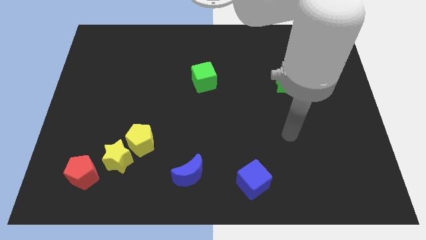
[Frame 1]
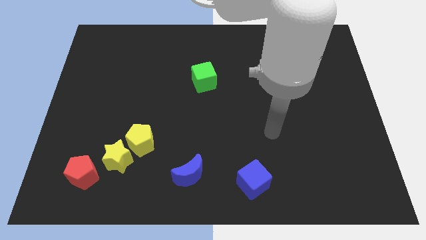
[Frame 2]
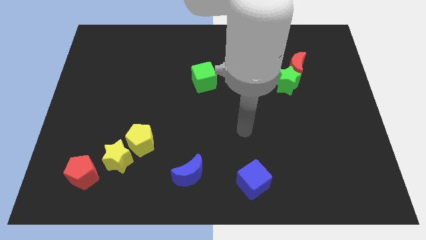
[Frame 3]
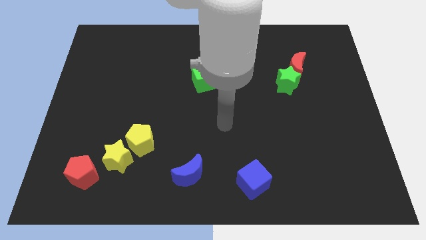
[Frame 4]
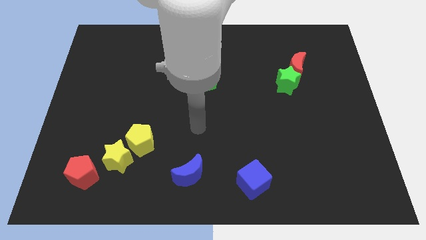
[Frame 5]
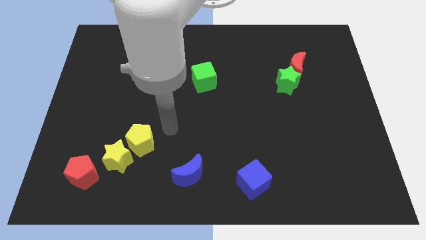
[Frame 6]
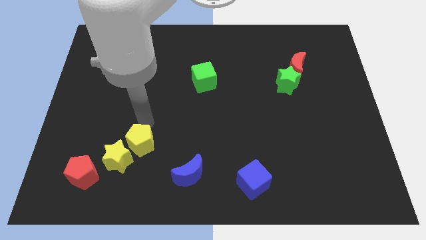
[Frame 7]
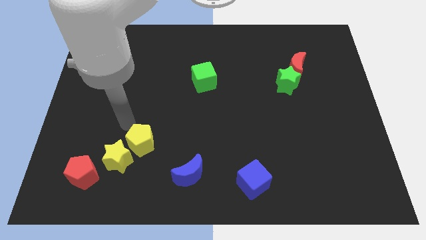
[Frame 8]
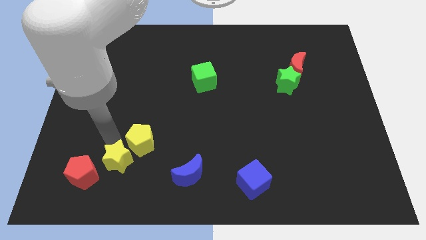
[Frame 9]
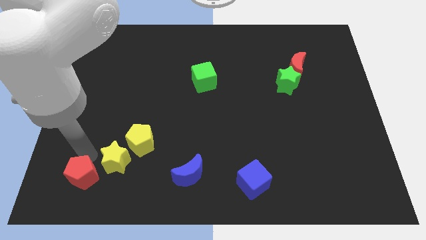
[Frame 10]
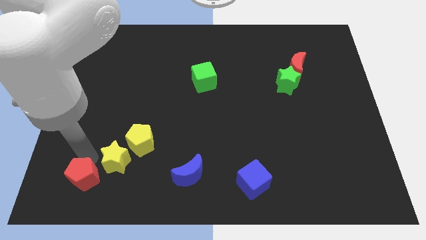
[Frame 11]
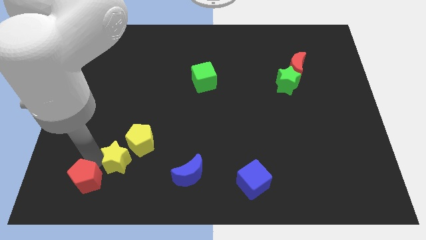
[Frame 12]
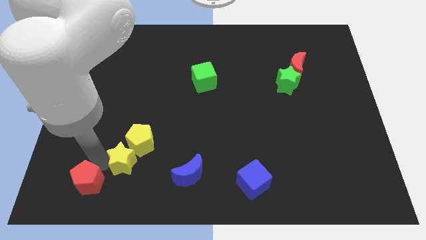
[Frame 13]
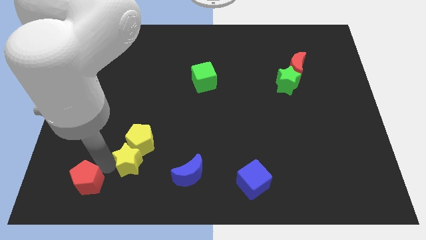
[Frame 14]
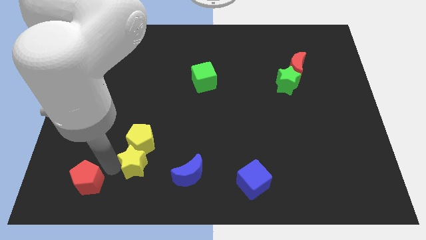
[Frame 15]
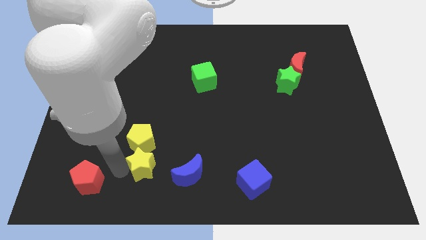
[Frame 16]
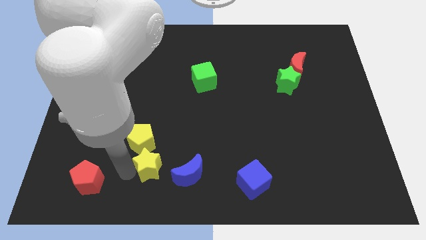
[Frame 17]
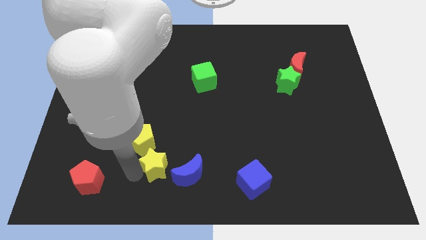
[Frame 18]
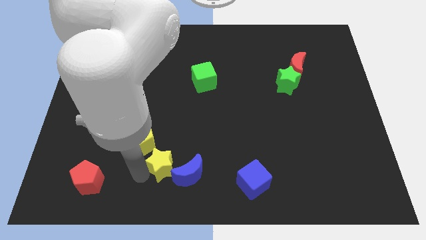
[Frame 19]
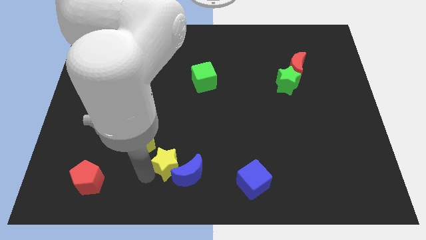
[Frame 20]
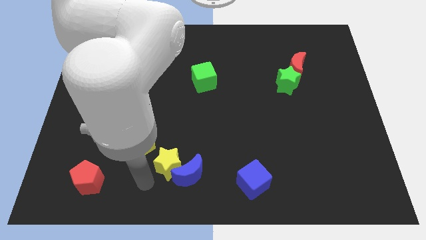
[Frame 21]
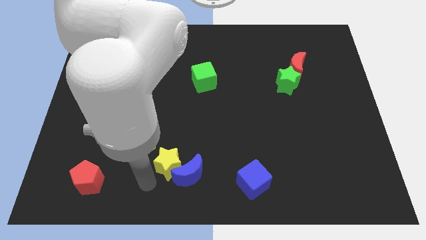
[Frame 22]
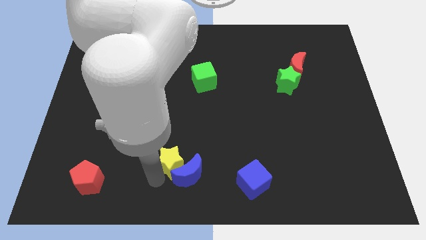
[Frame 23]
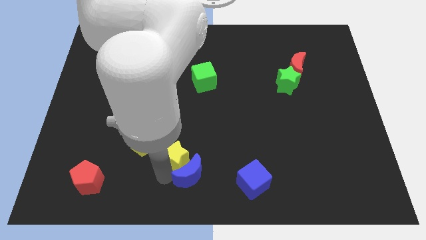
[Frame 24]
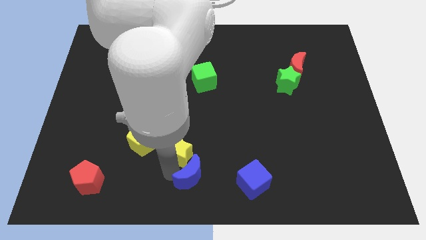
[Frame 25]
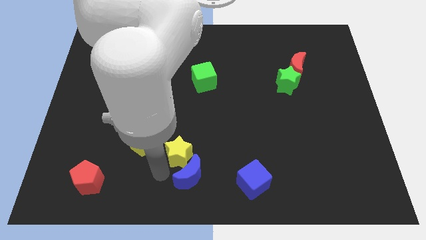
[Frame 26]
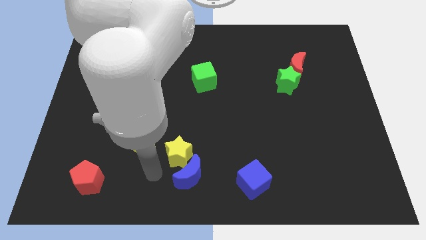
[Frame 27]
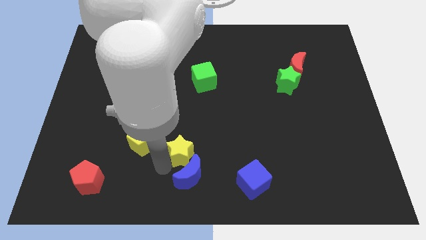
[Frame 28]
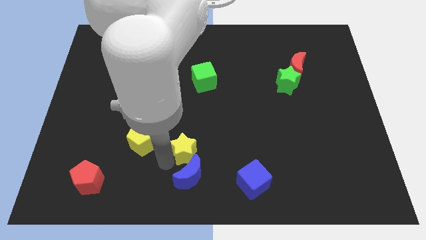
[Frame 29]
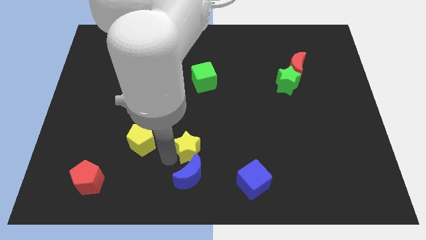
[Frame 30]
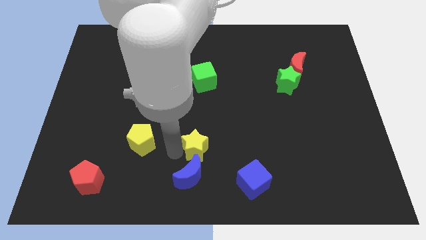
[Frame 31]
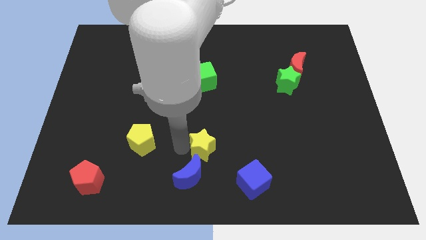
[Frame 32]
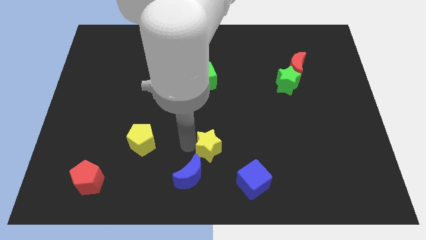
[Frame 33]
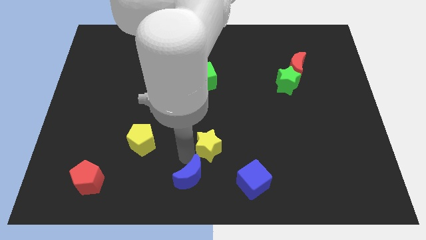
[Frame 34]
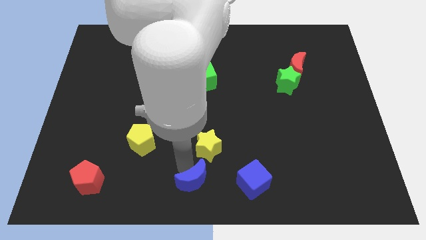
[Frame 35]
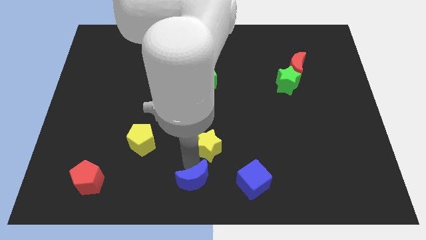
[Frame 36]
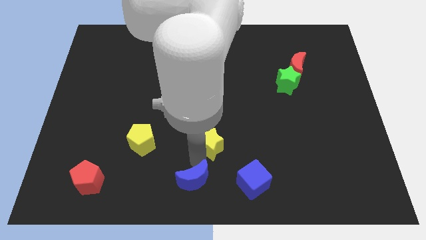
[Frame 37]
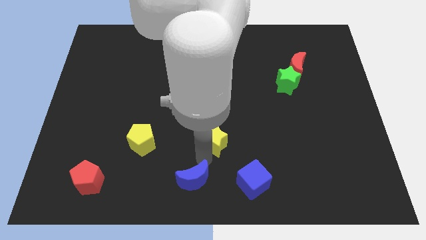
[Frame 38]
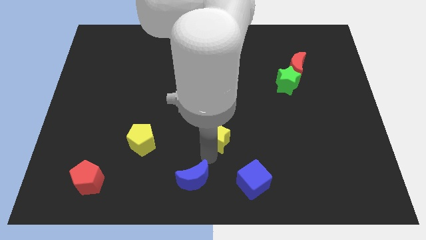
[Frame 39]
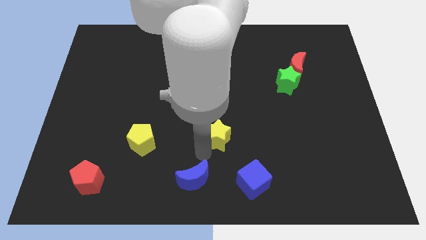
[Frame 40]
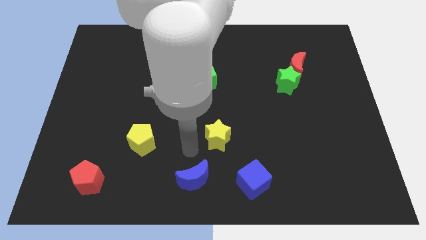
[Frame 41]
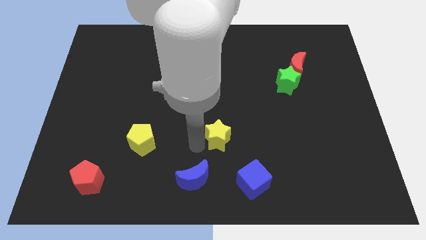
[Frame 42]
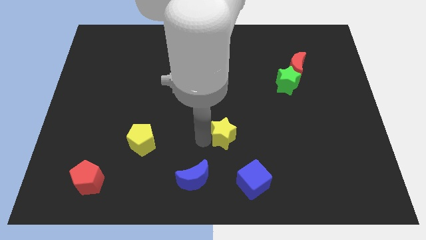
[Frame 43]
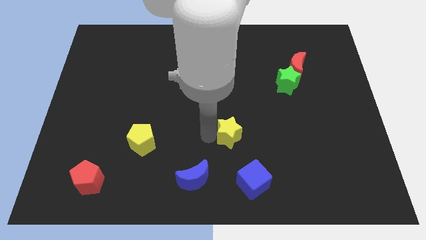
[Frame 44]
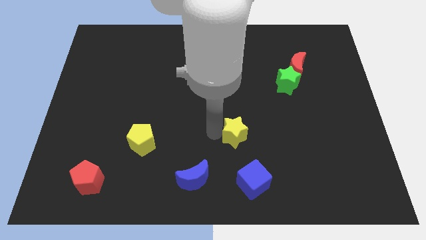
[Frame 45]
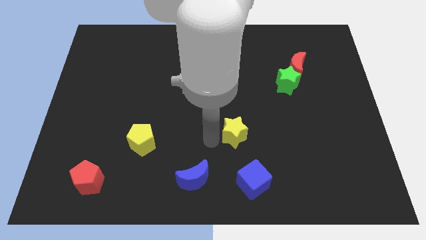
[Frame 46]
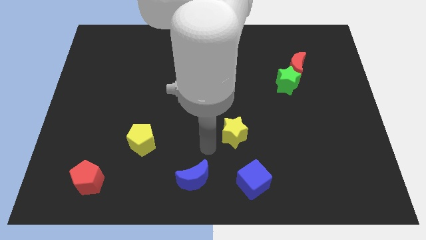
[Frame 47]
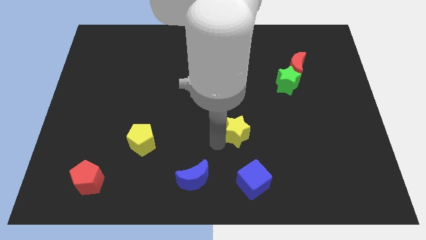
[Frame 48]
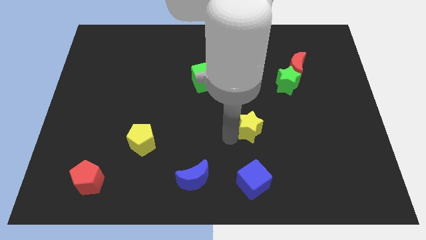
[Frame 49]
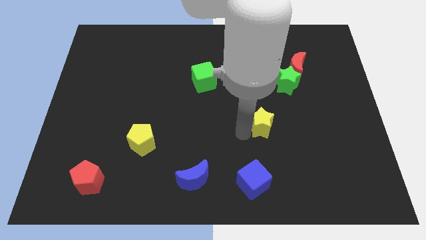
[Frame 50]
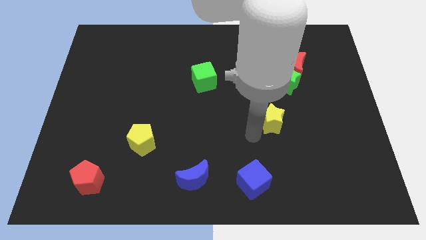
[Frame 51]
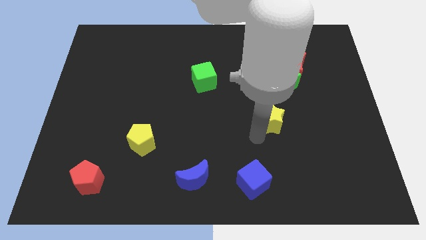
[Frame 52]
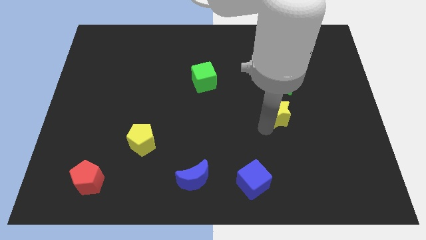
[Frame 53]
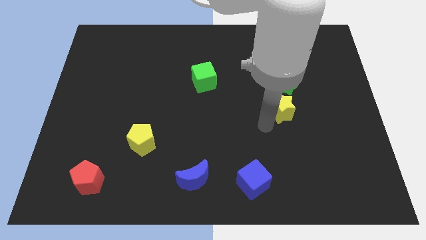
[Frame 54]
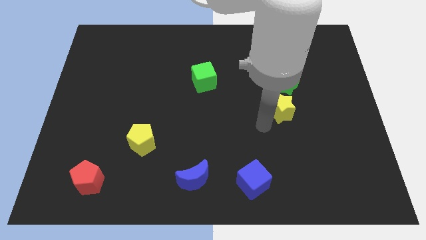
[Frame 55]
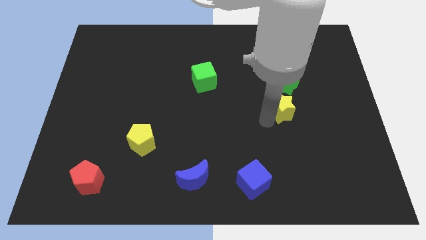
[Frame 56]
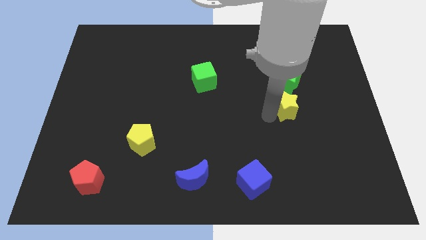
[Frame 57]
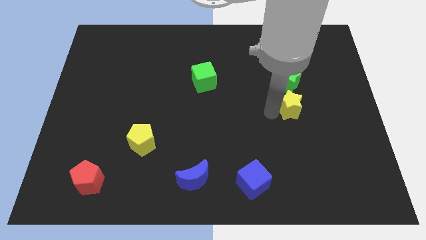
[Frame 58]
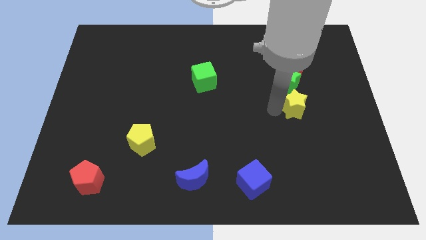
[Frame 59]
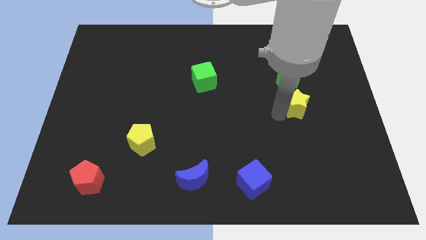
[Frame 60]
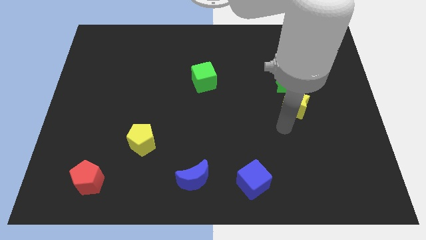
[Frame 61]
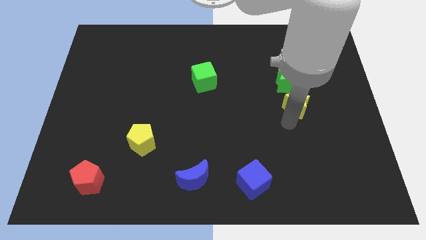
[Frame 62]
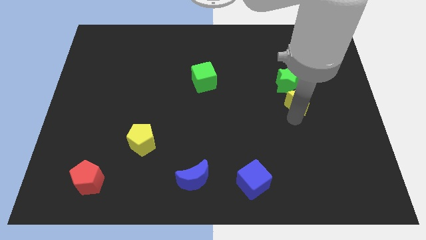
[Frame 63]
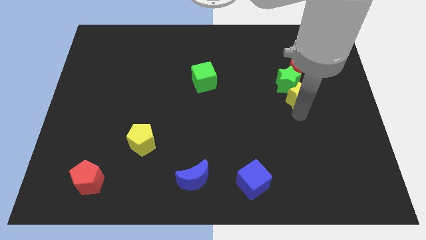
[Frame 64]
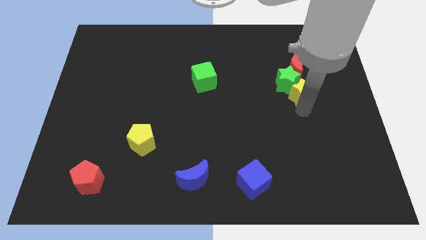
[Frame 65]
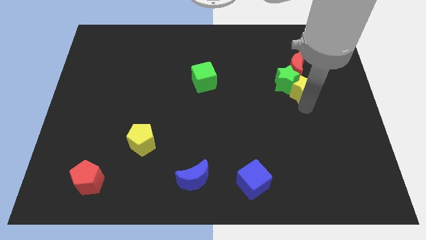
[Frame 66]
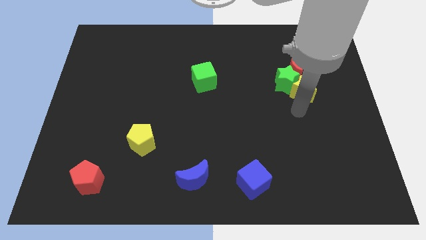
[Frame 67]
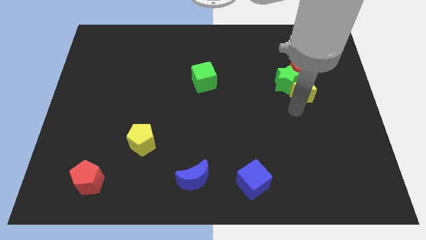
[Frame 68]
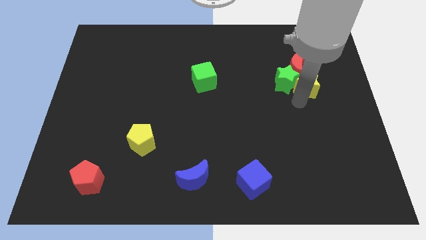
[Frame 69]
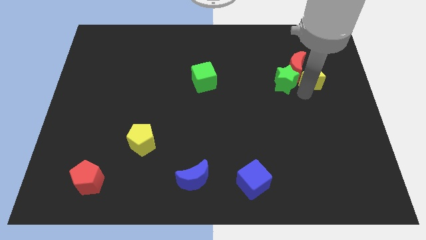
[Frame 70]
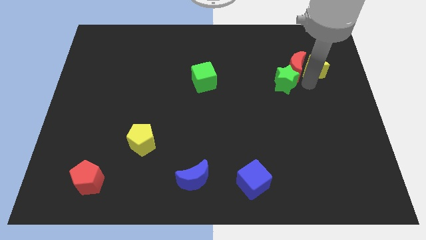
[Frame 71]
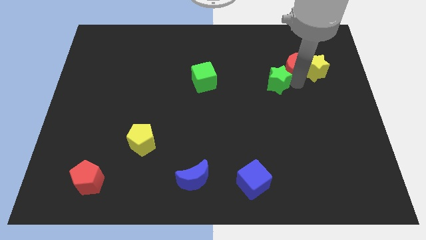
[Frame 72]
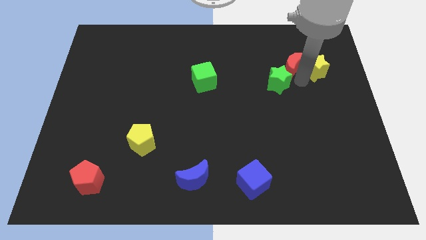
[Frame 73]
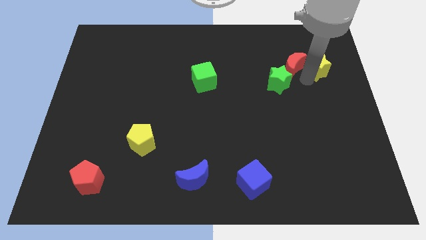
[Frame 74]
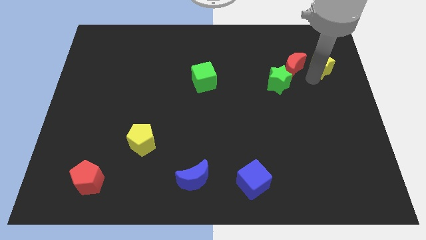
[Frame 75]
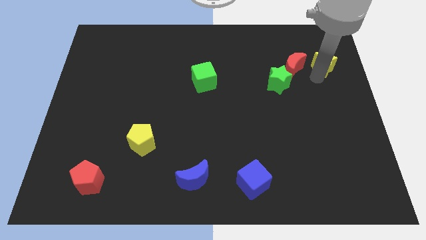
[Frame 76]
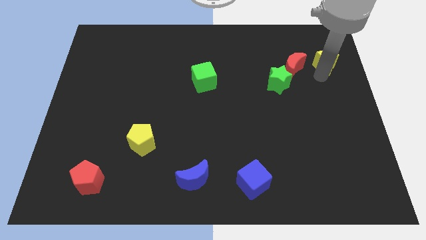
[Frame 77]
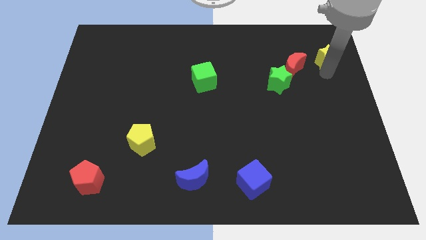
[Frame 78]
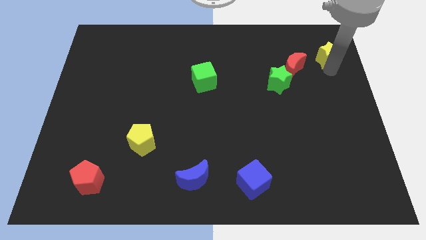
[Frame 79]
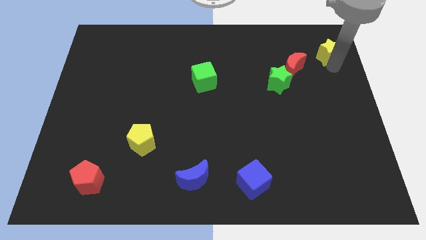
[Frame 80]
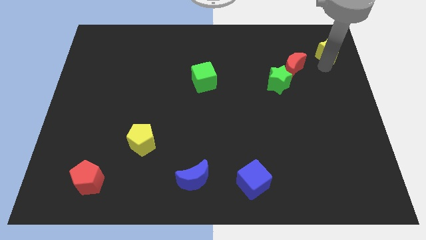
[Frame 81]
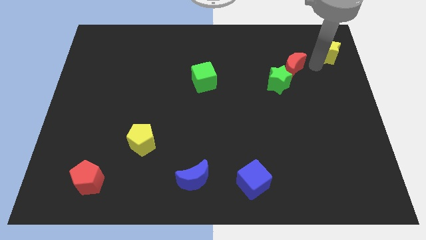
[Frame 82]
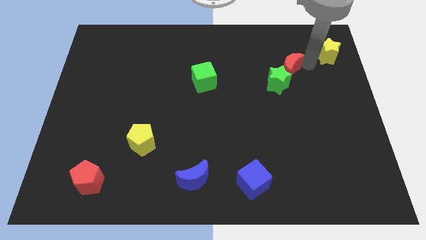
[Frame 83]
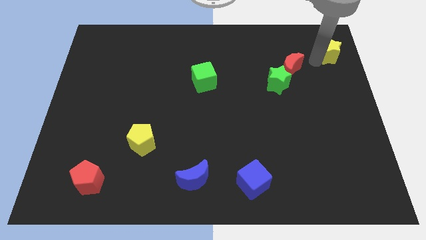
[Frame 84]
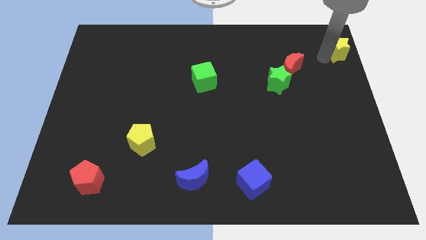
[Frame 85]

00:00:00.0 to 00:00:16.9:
move the yellow star to the top right
